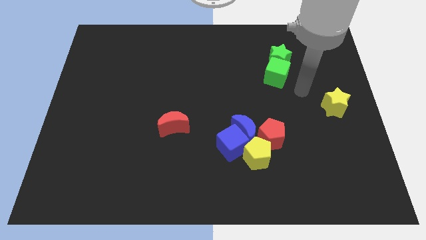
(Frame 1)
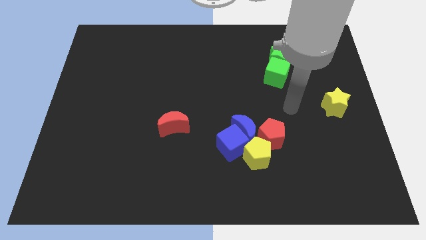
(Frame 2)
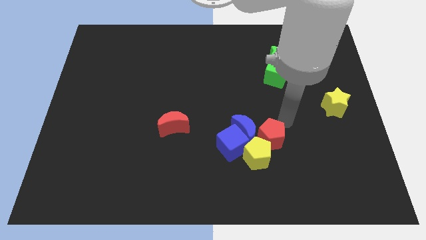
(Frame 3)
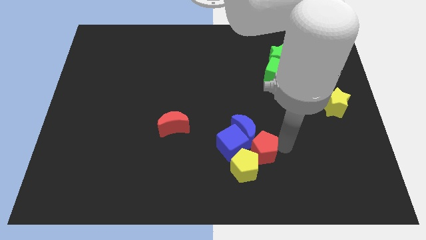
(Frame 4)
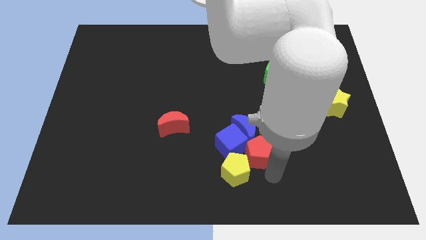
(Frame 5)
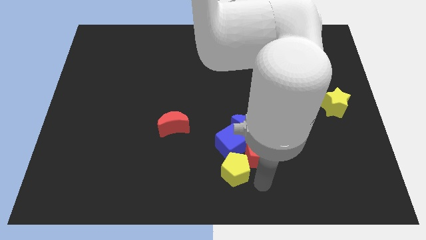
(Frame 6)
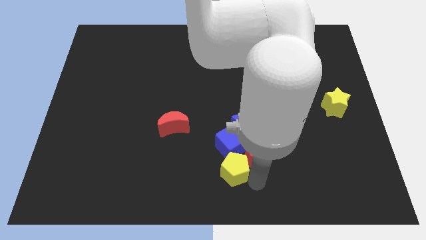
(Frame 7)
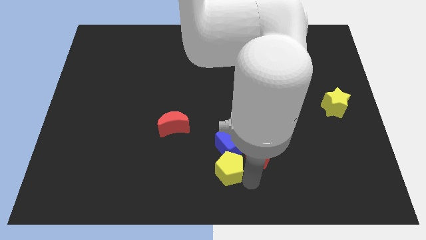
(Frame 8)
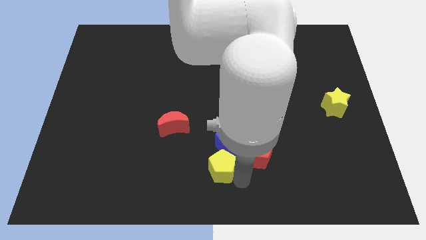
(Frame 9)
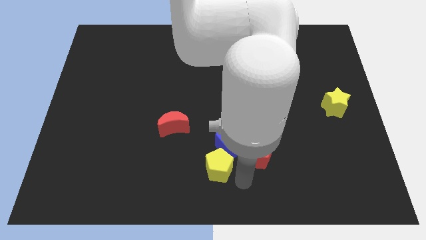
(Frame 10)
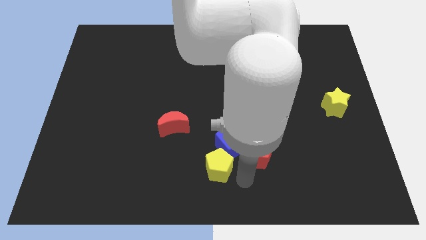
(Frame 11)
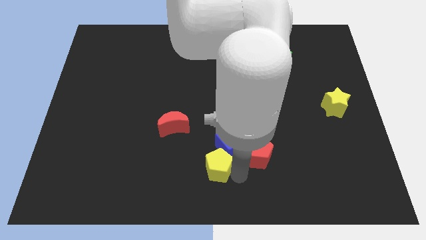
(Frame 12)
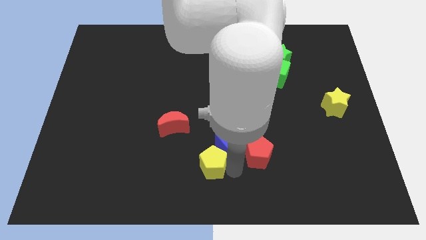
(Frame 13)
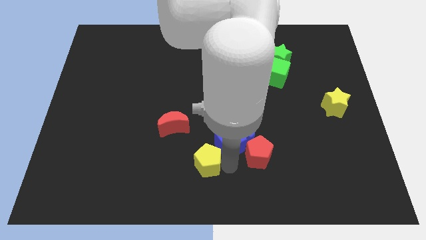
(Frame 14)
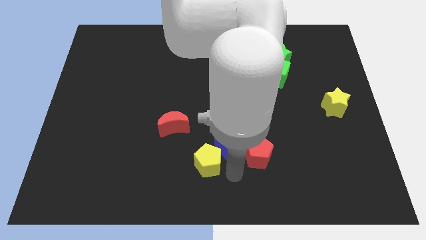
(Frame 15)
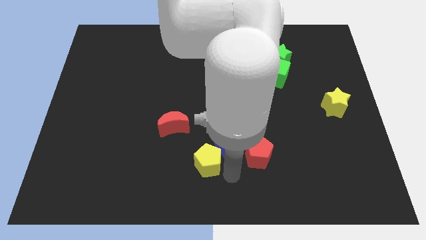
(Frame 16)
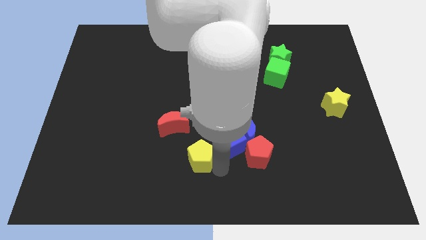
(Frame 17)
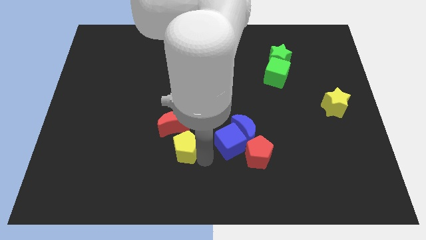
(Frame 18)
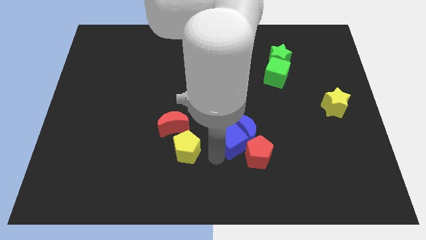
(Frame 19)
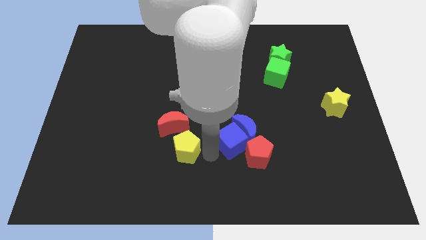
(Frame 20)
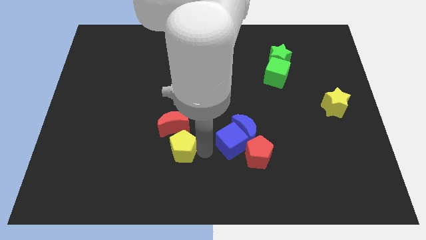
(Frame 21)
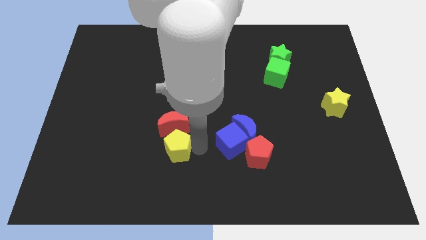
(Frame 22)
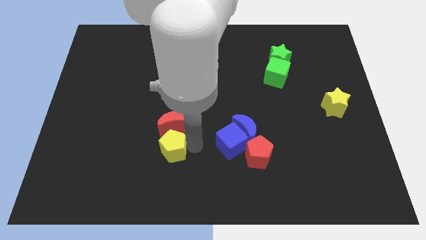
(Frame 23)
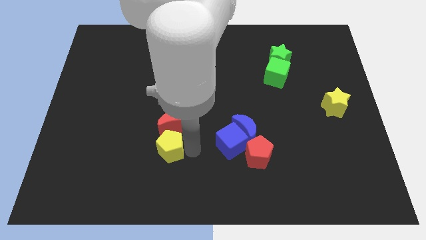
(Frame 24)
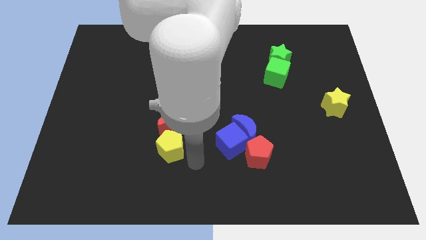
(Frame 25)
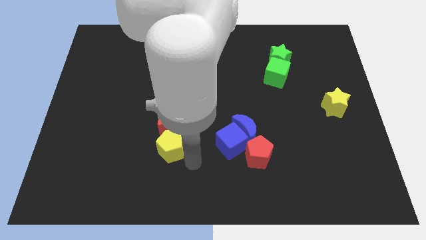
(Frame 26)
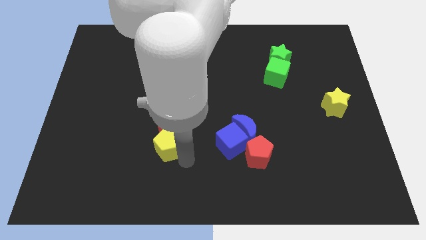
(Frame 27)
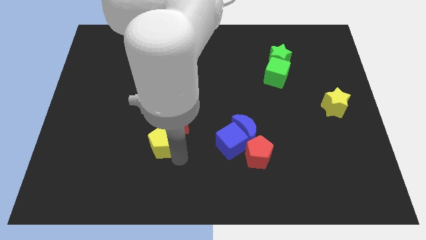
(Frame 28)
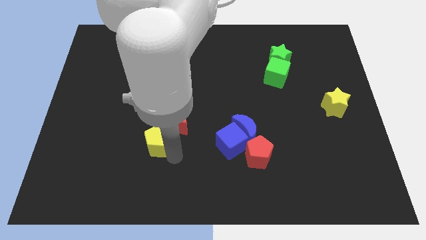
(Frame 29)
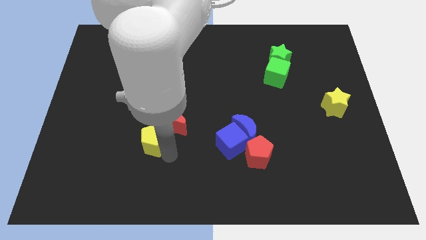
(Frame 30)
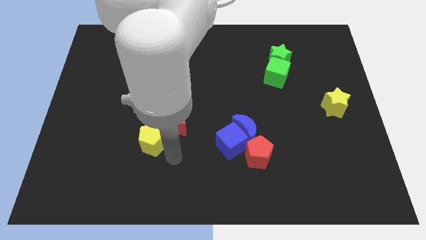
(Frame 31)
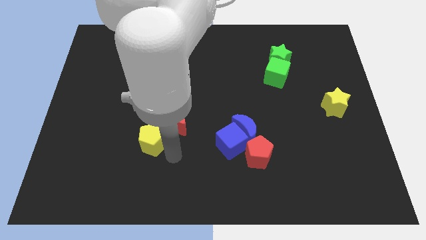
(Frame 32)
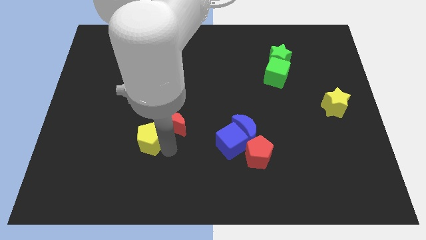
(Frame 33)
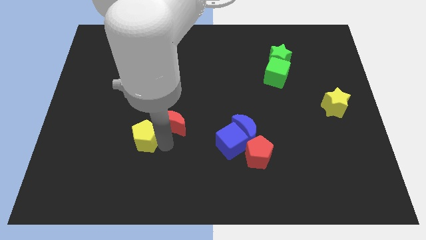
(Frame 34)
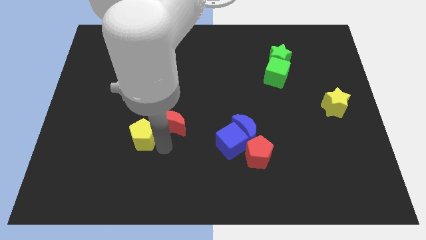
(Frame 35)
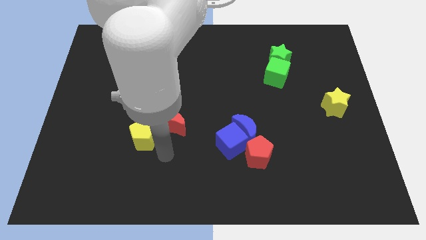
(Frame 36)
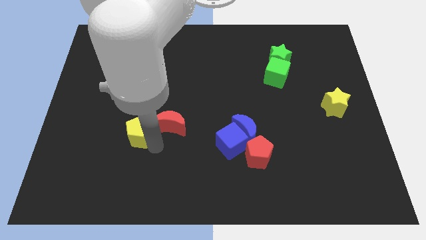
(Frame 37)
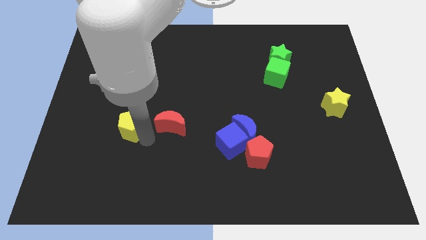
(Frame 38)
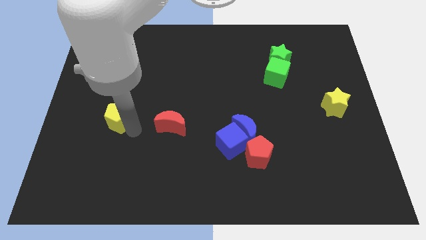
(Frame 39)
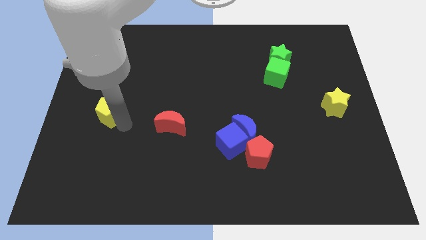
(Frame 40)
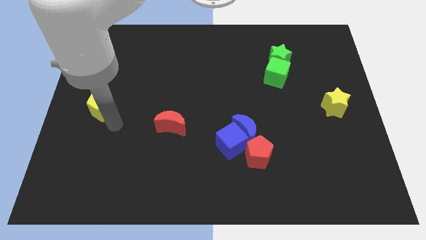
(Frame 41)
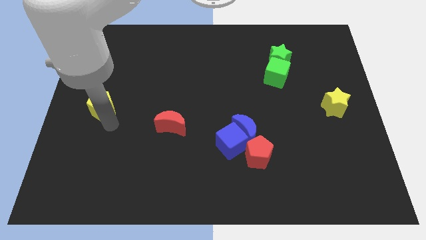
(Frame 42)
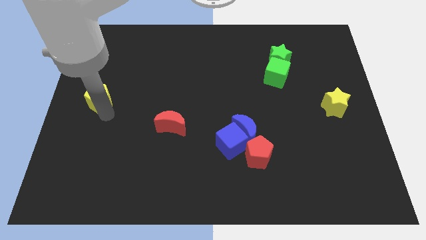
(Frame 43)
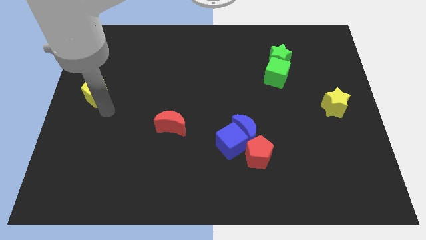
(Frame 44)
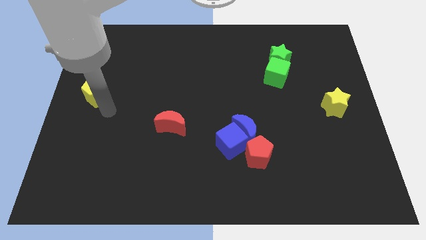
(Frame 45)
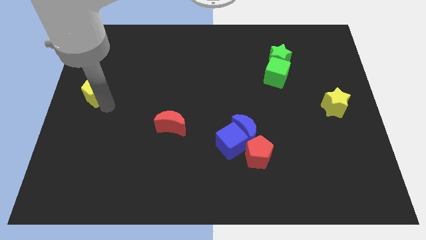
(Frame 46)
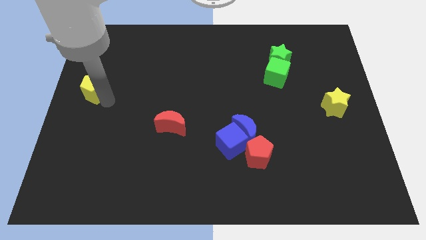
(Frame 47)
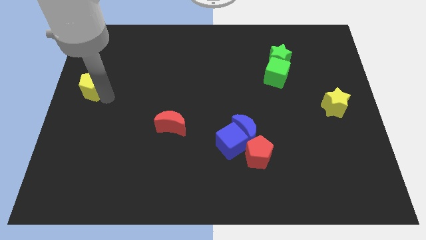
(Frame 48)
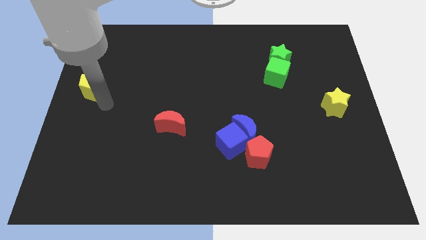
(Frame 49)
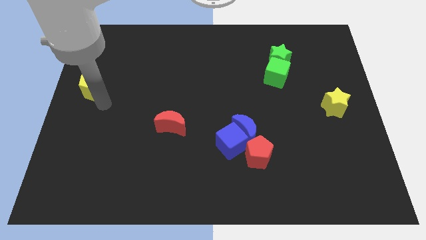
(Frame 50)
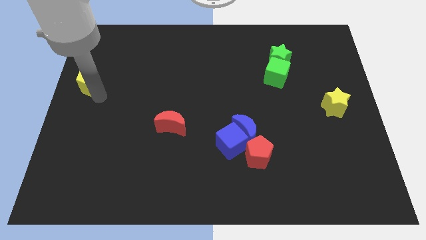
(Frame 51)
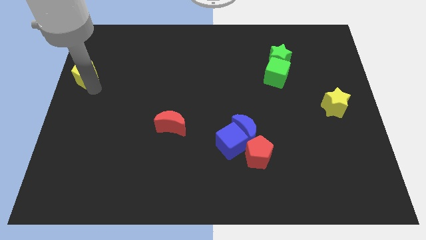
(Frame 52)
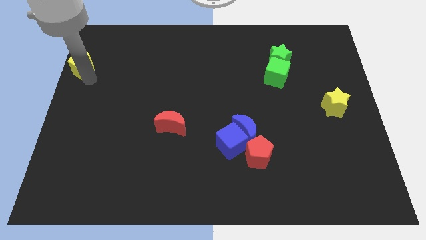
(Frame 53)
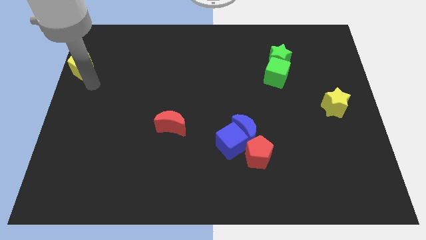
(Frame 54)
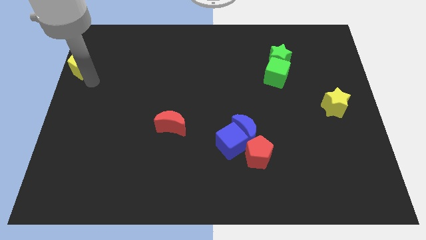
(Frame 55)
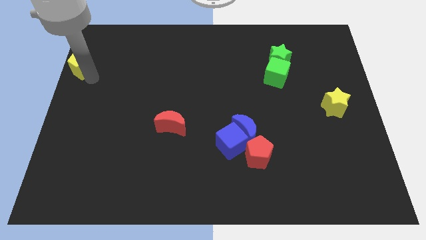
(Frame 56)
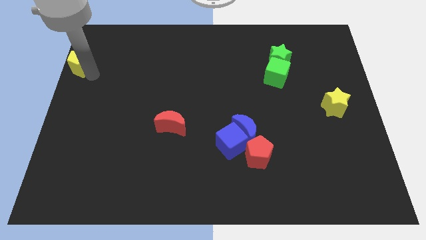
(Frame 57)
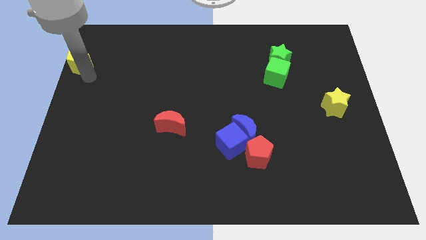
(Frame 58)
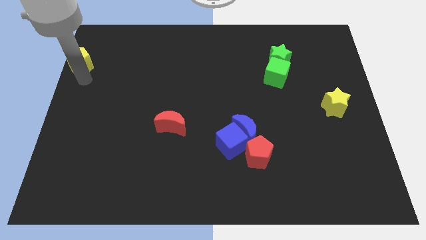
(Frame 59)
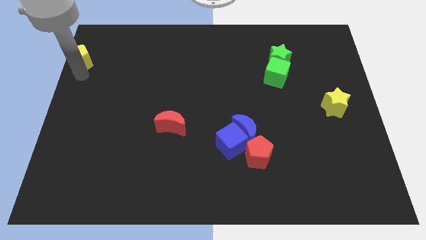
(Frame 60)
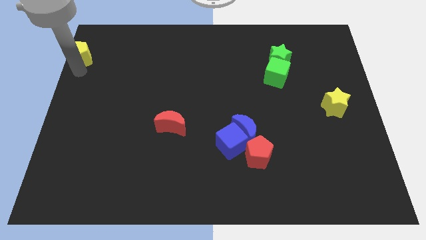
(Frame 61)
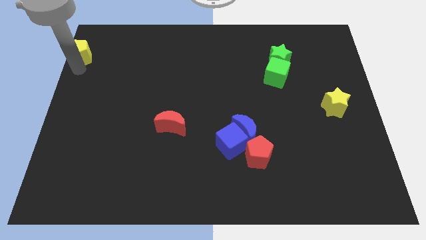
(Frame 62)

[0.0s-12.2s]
move the yellow pentagon to the top left of the board

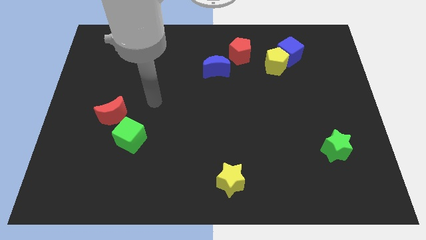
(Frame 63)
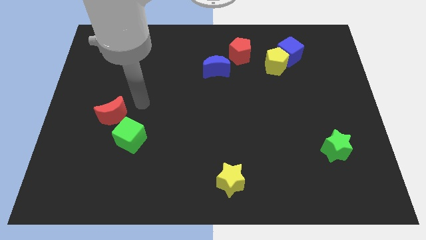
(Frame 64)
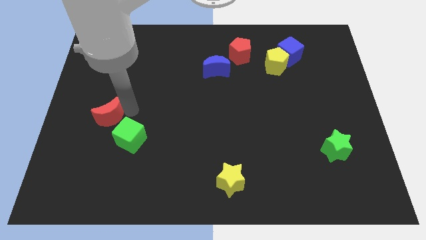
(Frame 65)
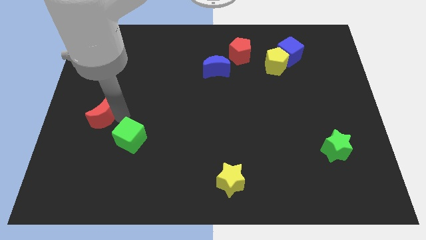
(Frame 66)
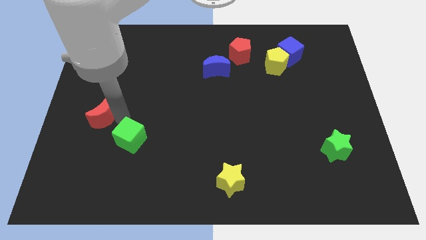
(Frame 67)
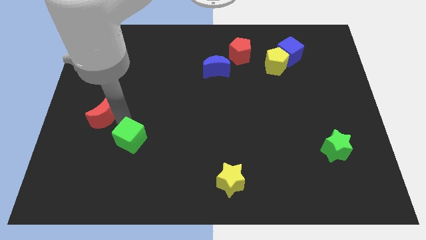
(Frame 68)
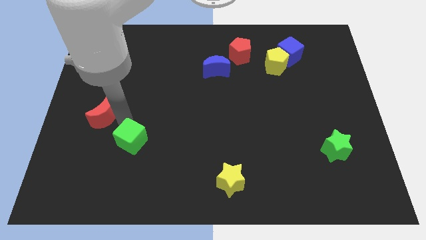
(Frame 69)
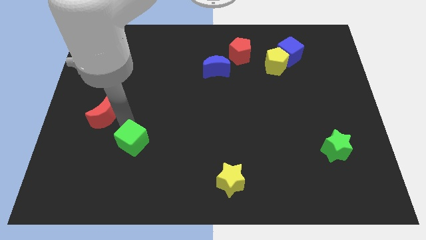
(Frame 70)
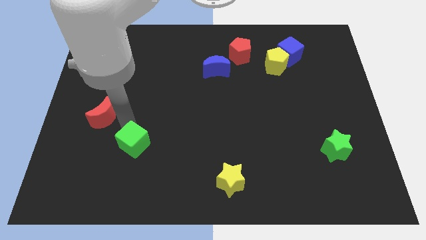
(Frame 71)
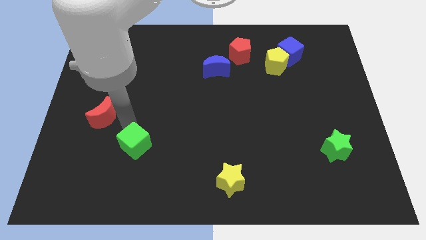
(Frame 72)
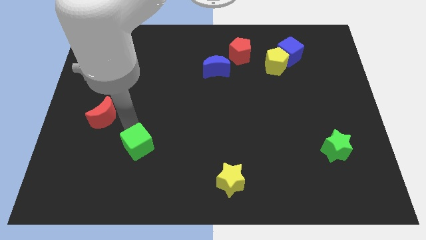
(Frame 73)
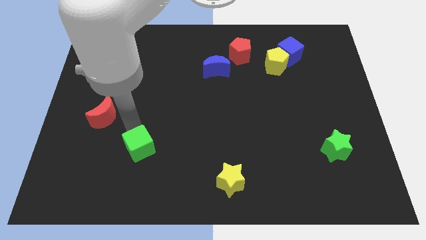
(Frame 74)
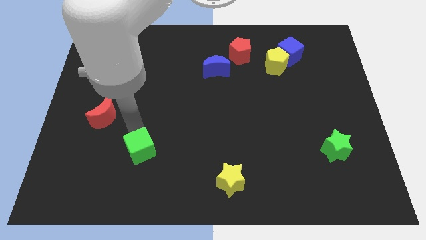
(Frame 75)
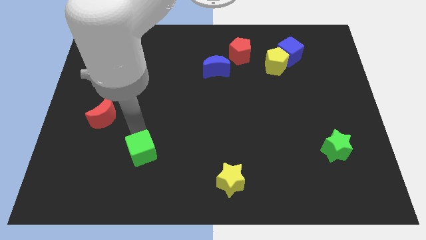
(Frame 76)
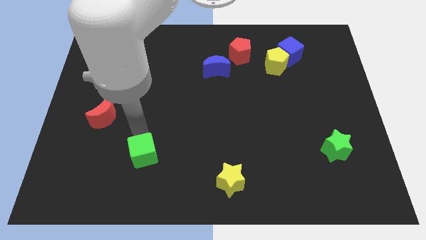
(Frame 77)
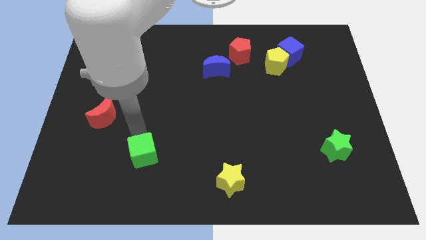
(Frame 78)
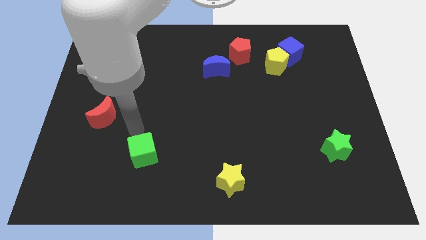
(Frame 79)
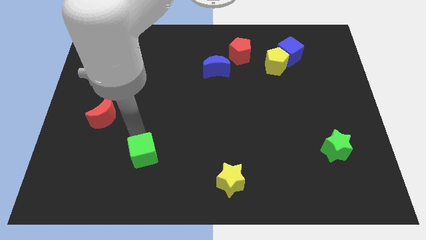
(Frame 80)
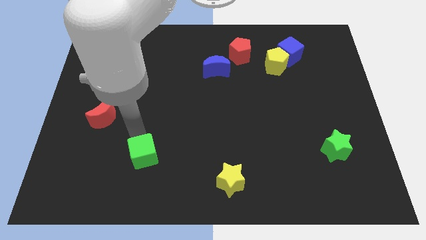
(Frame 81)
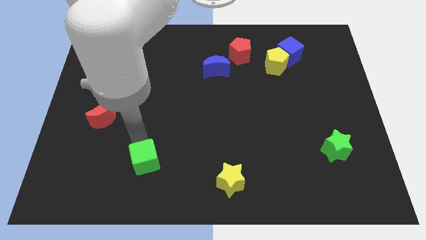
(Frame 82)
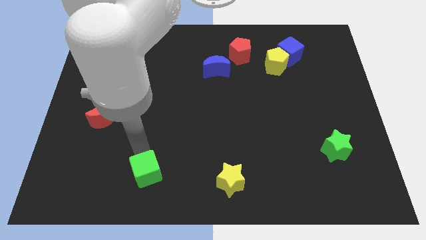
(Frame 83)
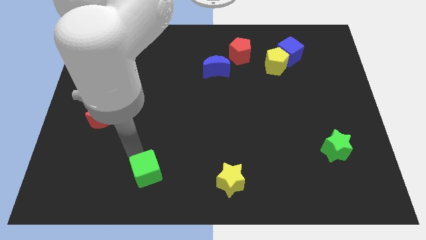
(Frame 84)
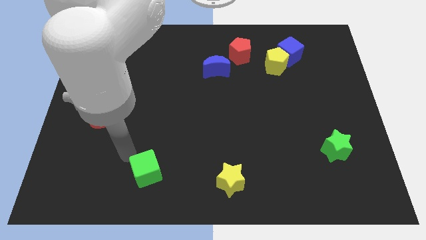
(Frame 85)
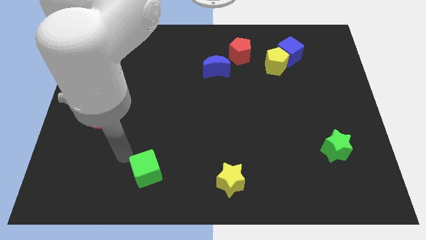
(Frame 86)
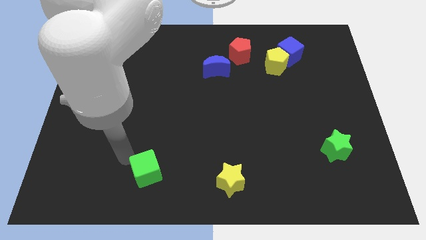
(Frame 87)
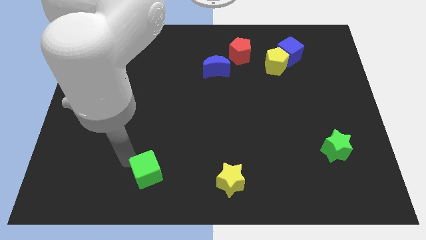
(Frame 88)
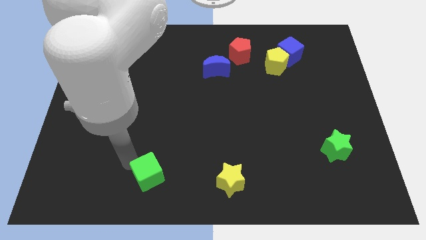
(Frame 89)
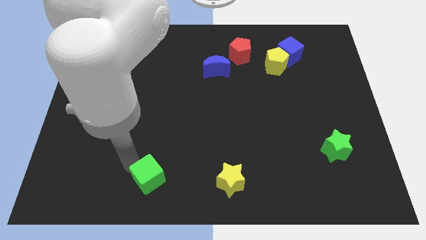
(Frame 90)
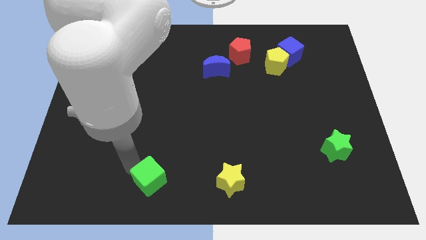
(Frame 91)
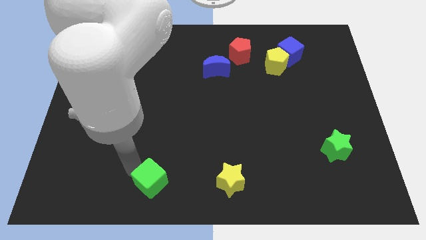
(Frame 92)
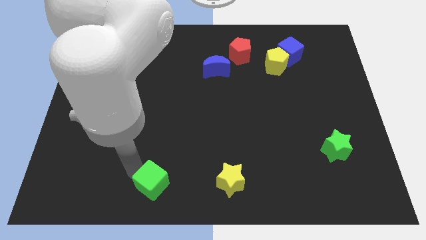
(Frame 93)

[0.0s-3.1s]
put the green cube to the bottom side
